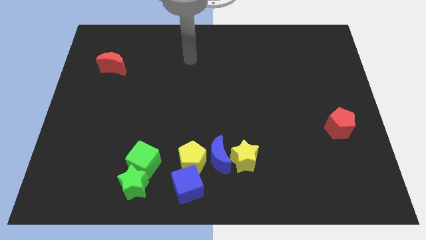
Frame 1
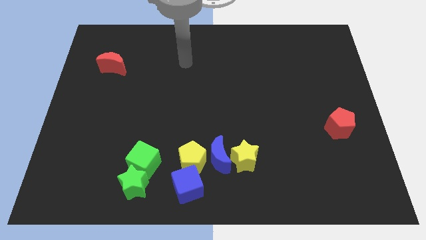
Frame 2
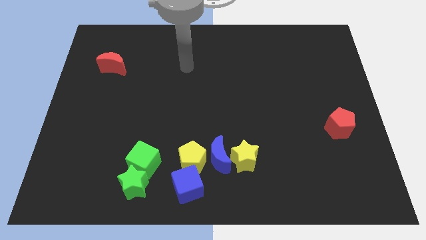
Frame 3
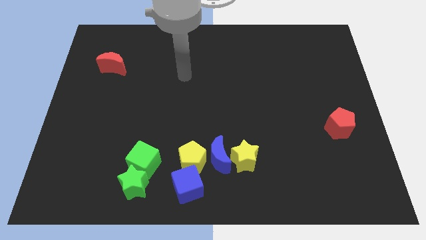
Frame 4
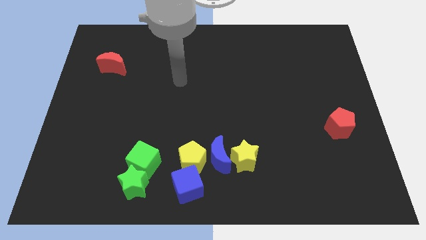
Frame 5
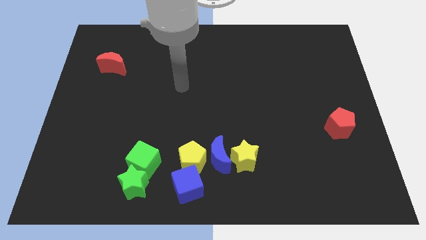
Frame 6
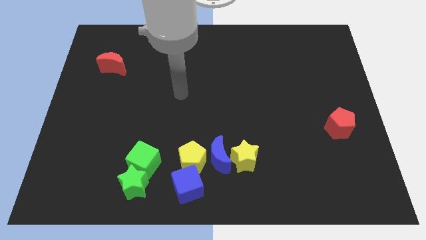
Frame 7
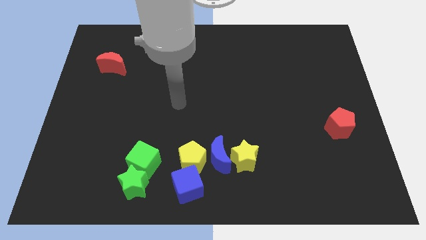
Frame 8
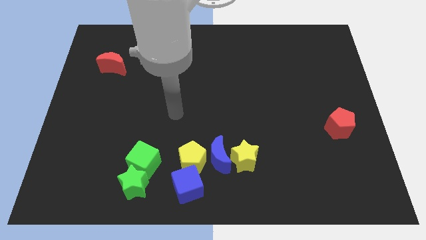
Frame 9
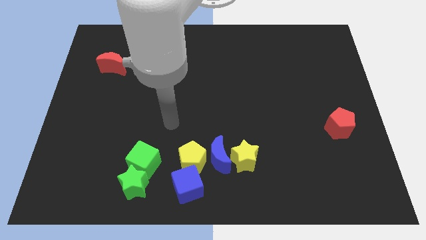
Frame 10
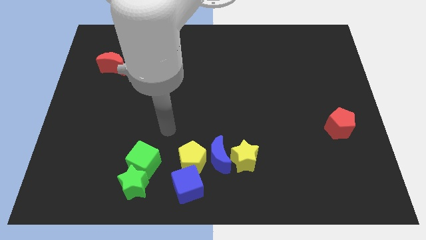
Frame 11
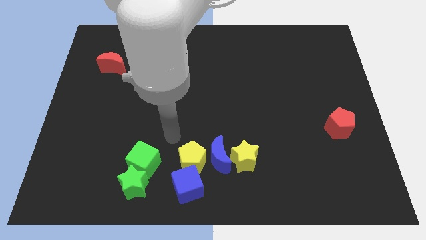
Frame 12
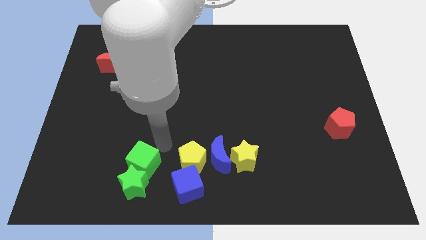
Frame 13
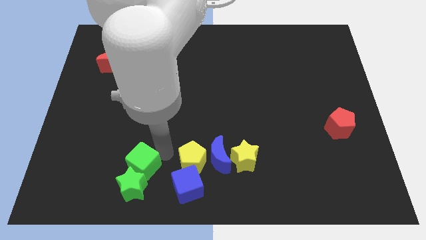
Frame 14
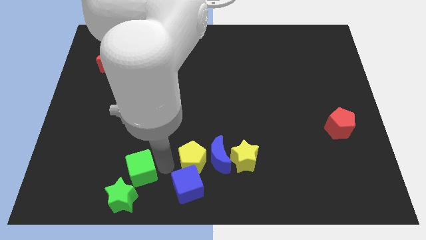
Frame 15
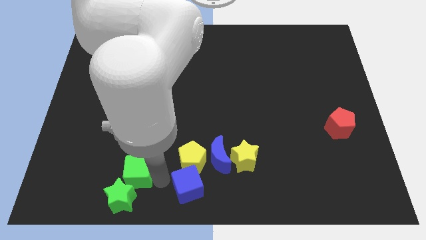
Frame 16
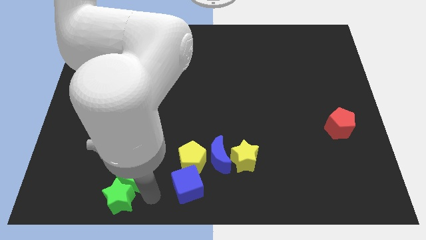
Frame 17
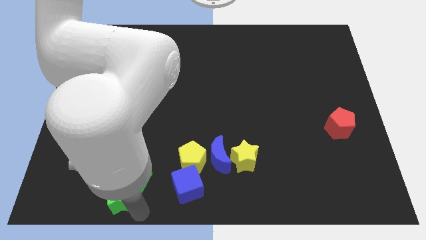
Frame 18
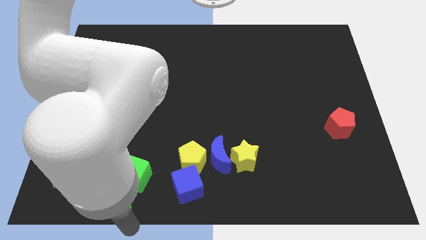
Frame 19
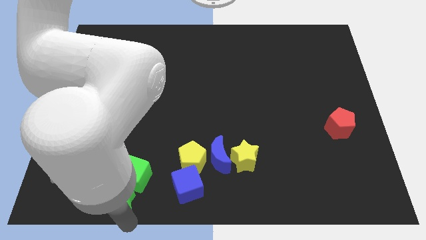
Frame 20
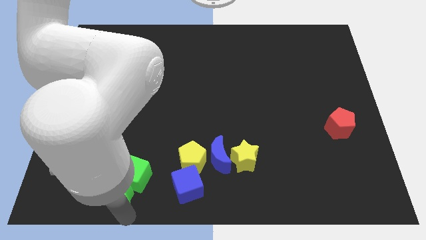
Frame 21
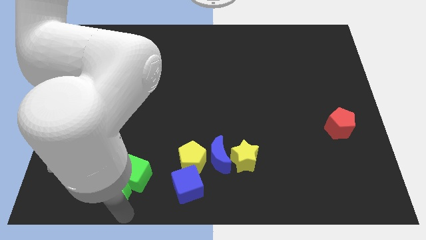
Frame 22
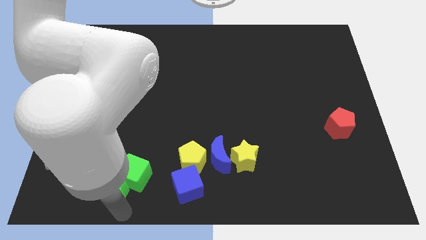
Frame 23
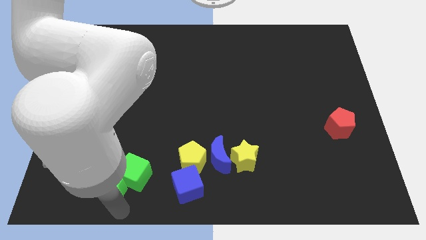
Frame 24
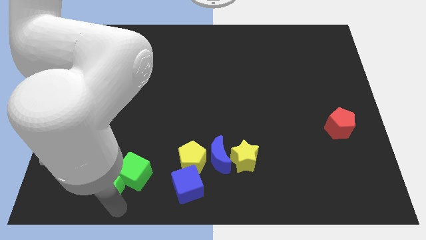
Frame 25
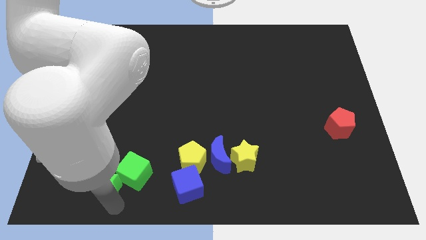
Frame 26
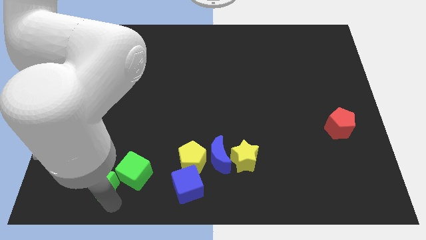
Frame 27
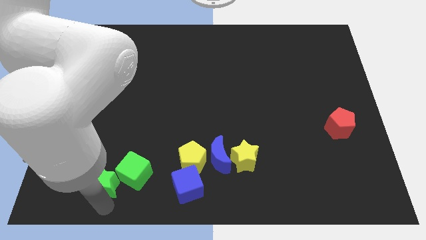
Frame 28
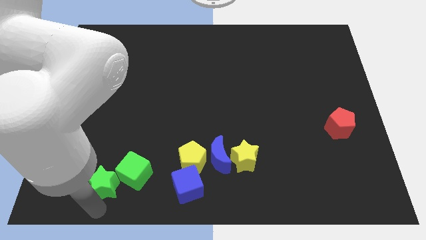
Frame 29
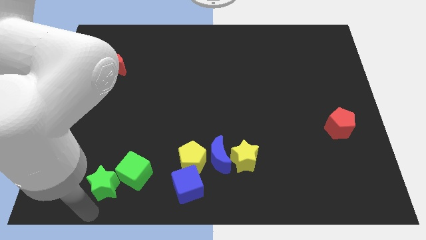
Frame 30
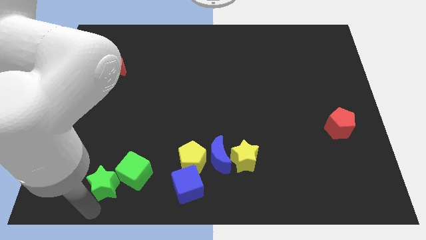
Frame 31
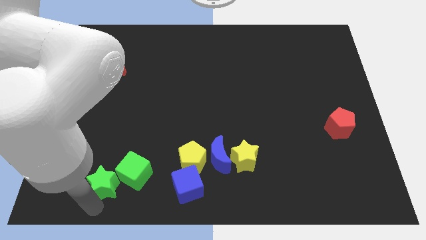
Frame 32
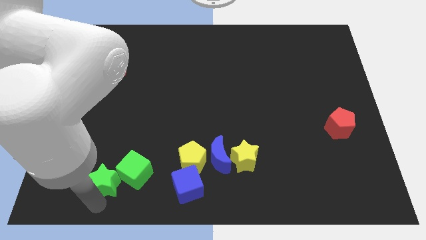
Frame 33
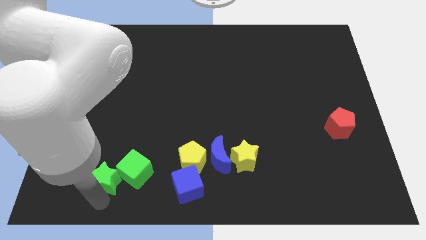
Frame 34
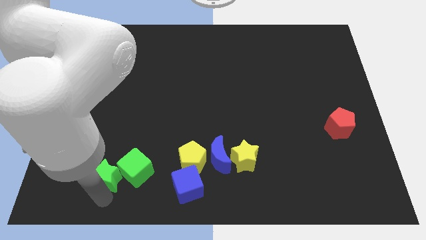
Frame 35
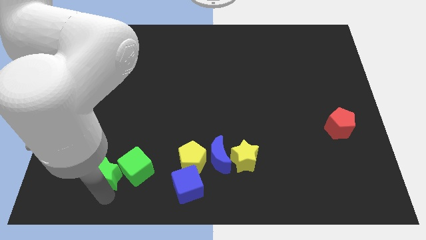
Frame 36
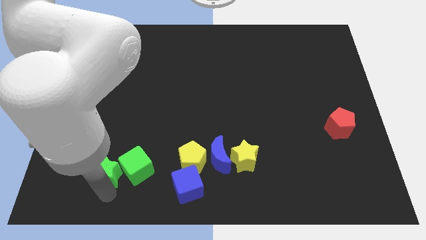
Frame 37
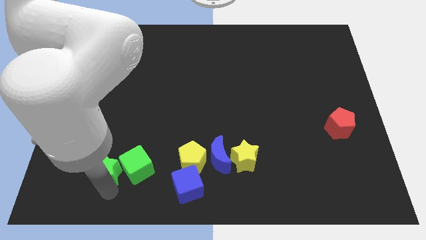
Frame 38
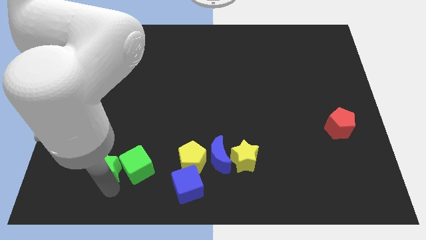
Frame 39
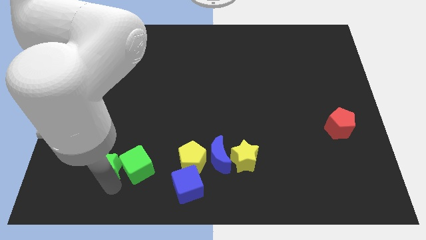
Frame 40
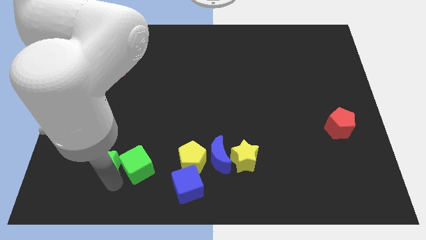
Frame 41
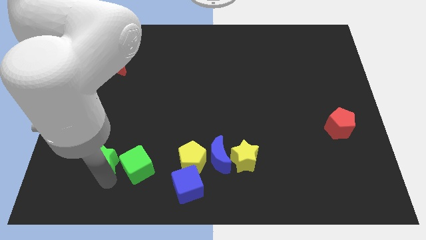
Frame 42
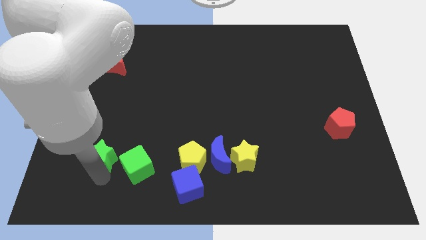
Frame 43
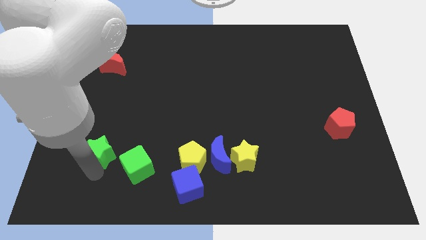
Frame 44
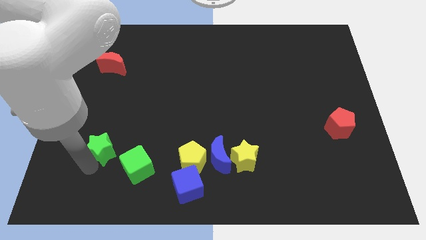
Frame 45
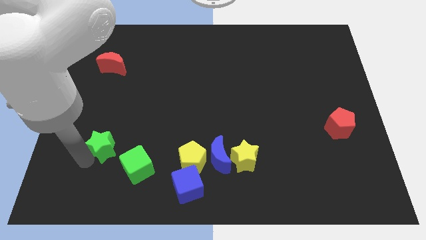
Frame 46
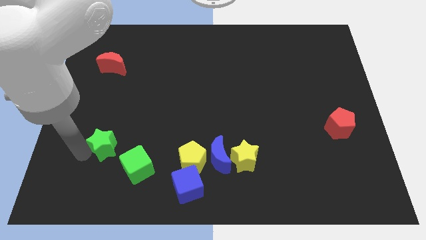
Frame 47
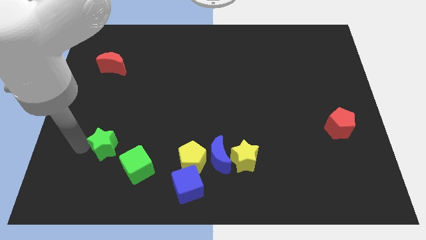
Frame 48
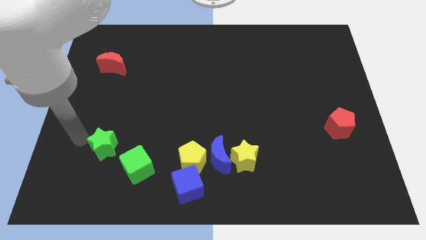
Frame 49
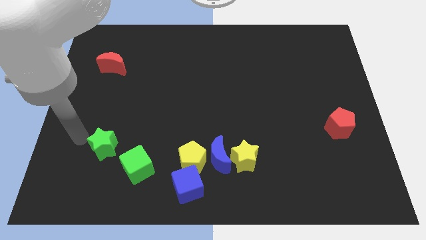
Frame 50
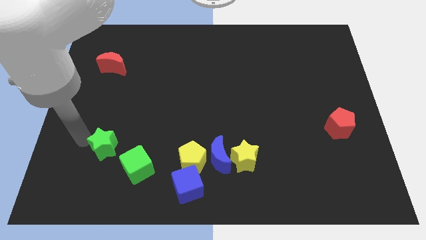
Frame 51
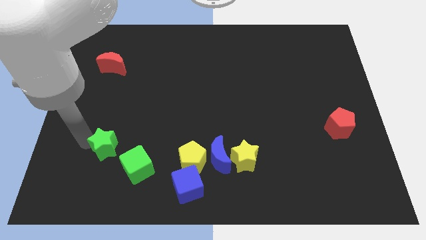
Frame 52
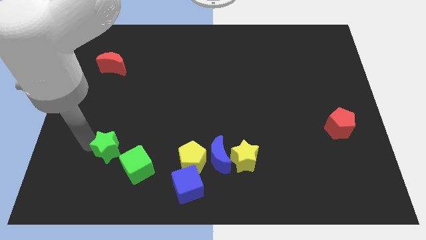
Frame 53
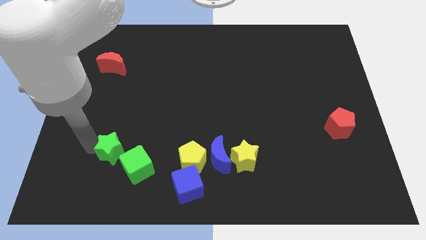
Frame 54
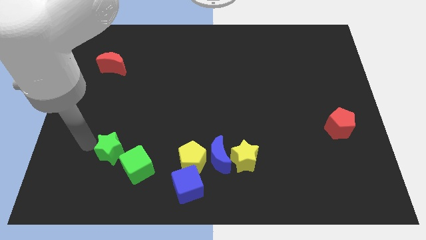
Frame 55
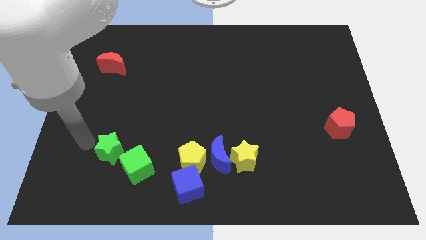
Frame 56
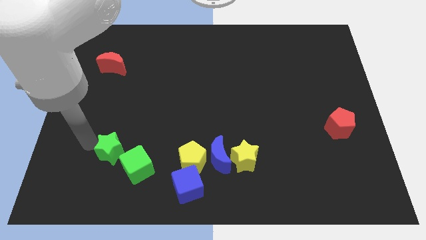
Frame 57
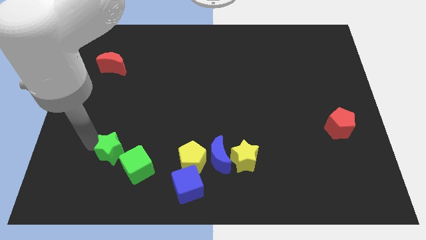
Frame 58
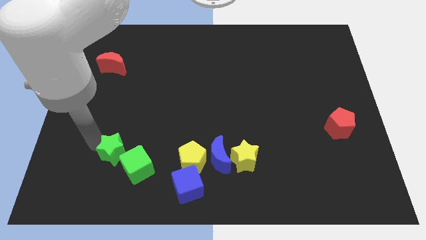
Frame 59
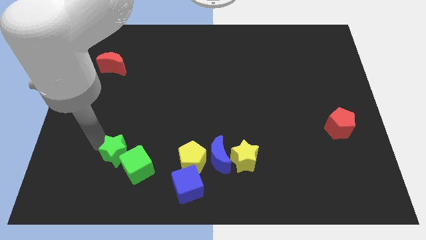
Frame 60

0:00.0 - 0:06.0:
move the green star just left of the yellow pentagon

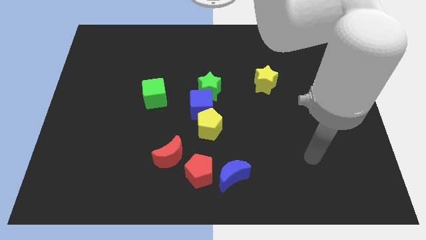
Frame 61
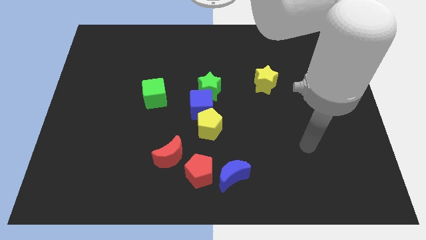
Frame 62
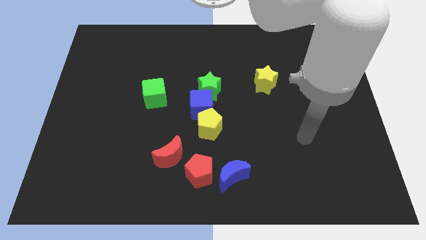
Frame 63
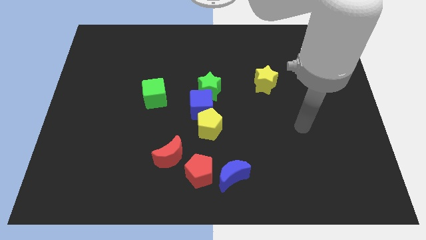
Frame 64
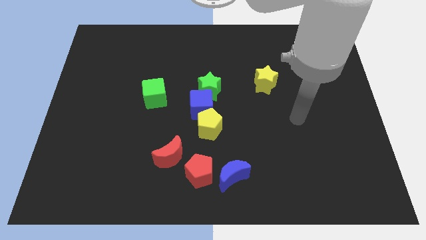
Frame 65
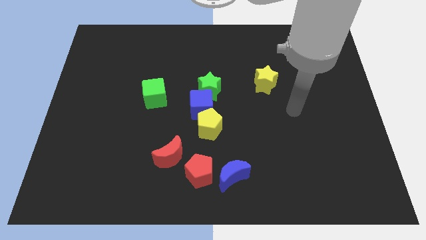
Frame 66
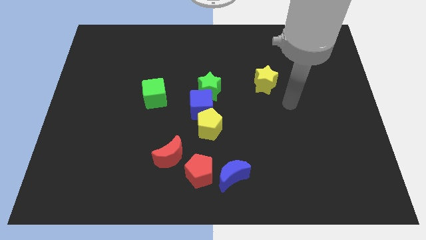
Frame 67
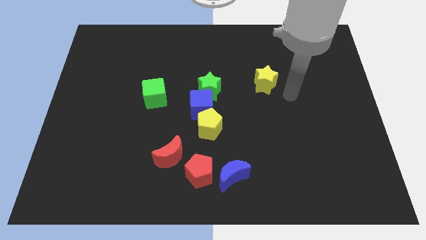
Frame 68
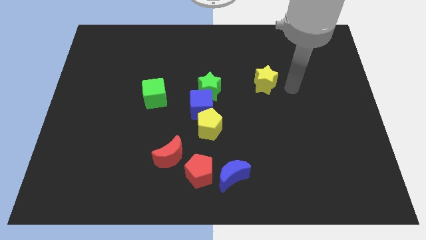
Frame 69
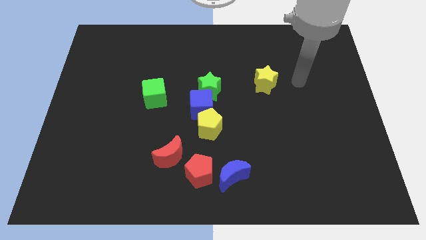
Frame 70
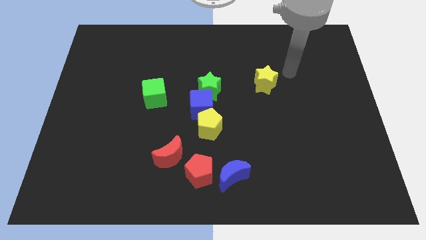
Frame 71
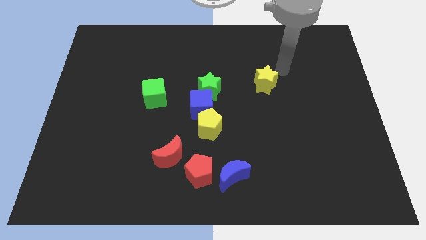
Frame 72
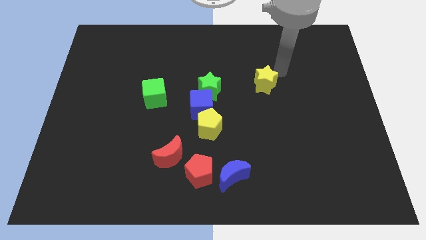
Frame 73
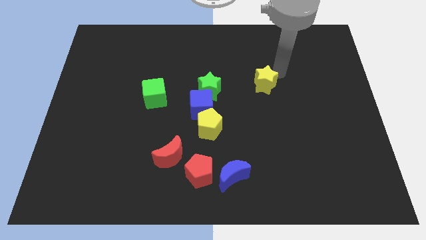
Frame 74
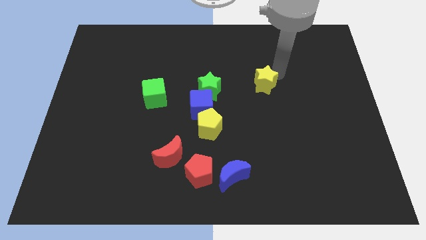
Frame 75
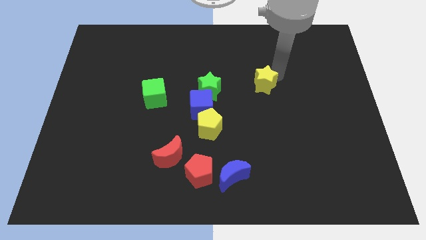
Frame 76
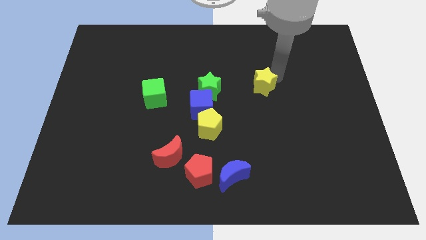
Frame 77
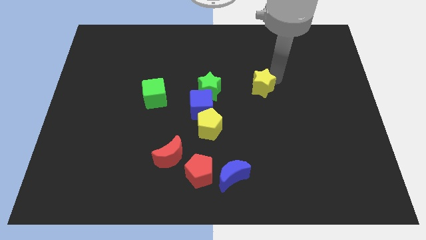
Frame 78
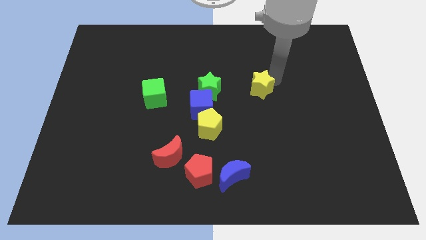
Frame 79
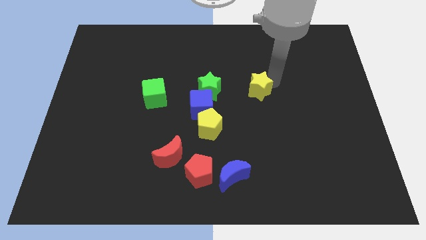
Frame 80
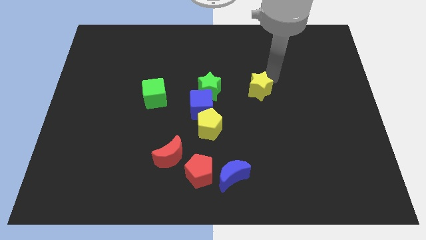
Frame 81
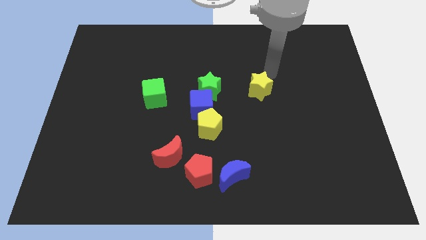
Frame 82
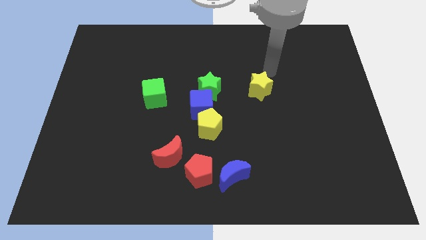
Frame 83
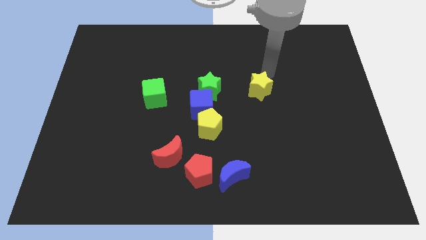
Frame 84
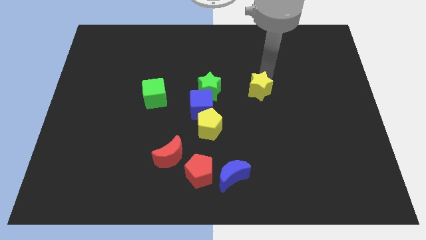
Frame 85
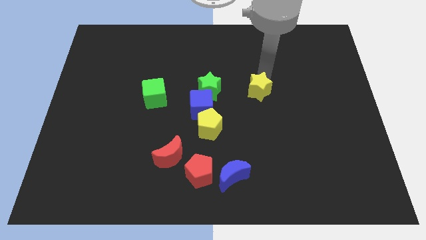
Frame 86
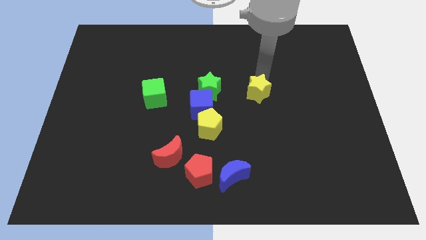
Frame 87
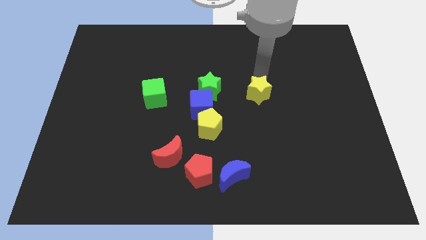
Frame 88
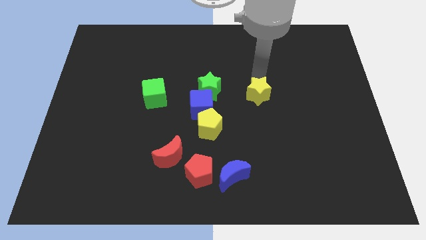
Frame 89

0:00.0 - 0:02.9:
push the yellow star to the right of the blue cube
